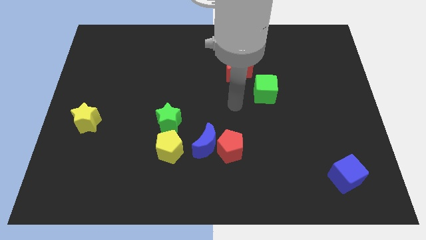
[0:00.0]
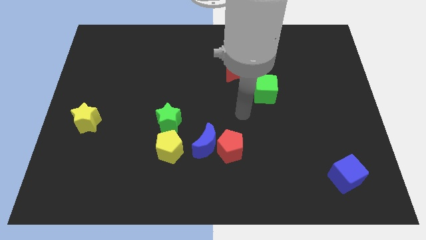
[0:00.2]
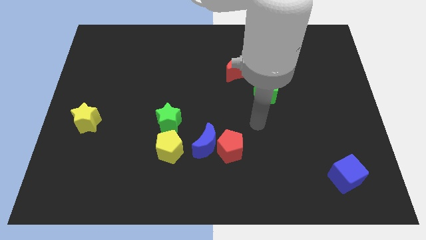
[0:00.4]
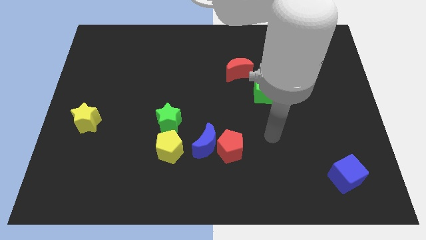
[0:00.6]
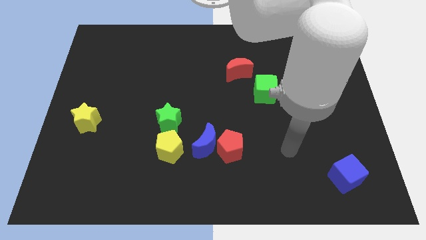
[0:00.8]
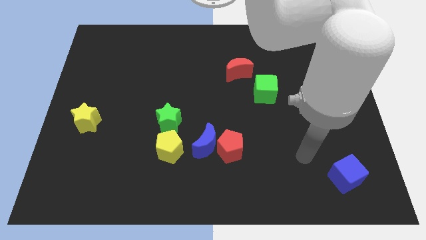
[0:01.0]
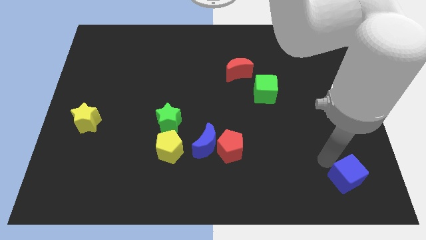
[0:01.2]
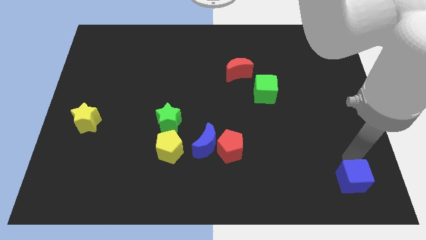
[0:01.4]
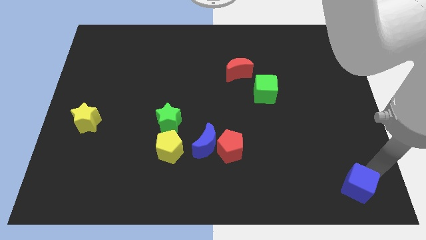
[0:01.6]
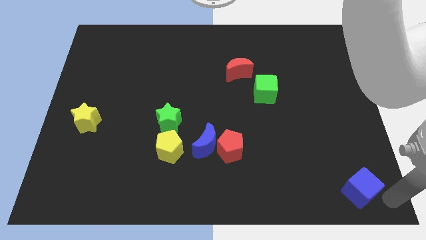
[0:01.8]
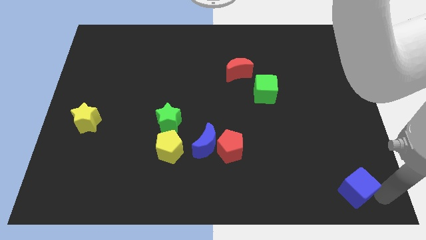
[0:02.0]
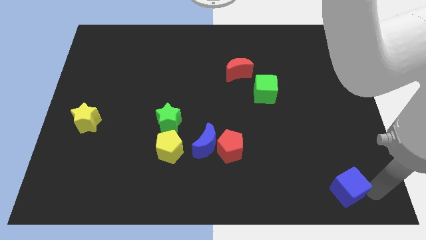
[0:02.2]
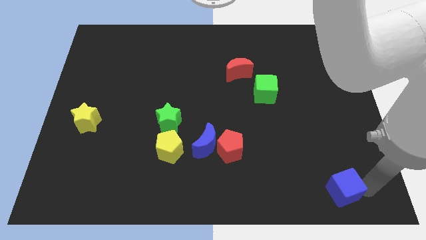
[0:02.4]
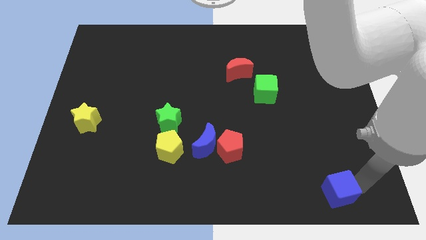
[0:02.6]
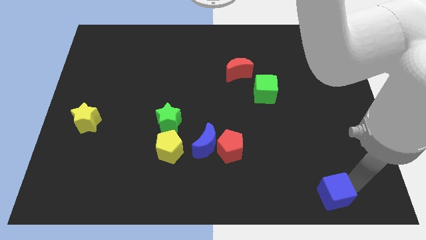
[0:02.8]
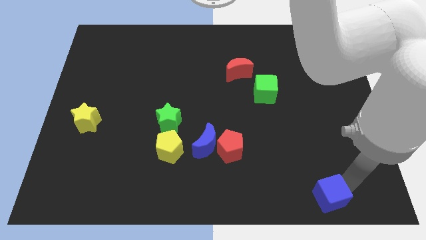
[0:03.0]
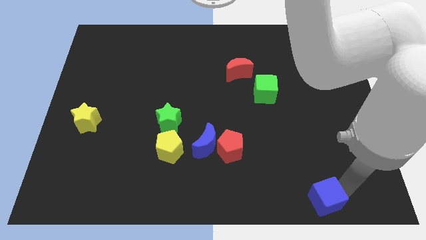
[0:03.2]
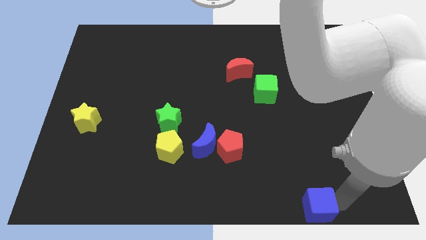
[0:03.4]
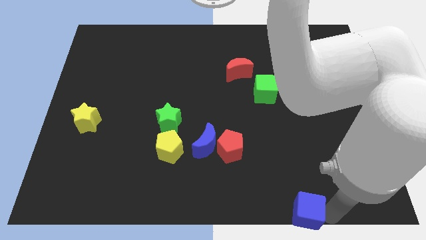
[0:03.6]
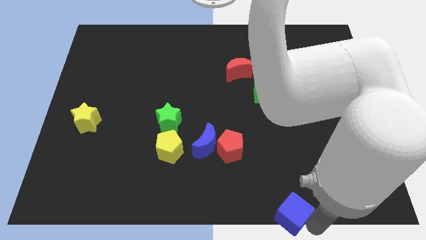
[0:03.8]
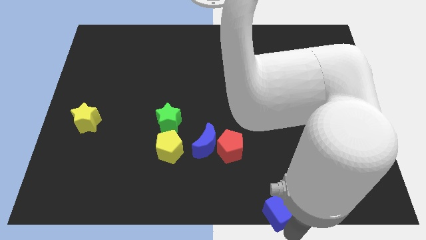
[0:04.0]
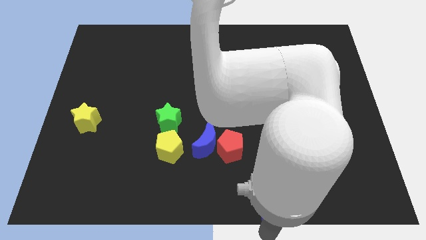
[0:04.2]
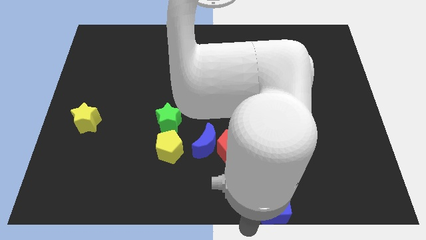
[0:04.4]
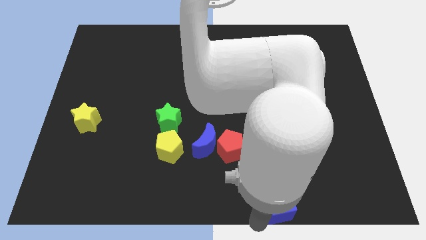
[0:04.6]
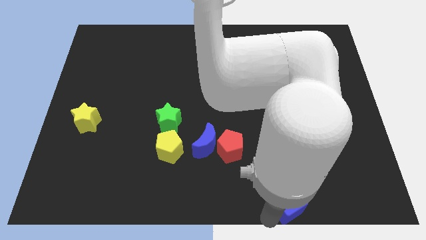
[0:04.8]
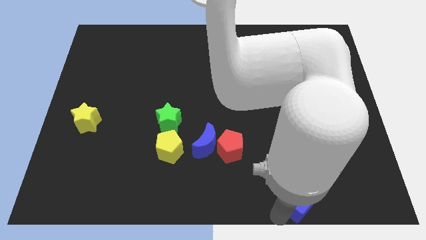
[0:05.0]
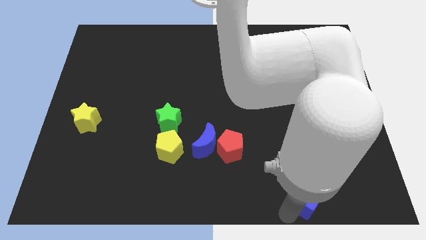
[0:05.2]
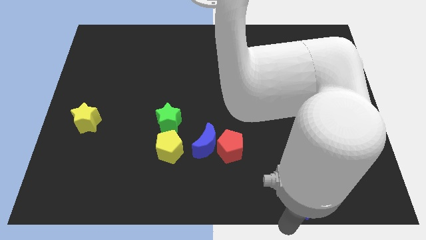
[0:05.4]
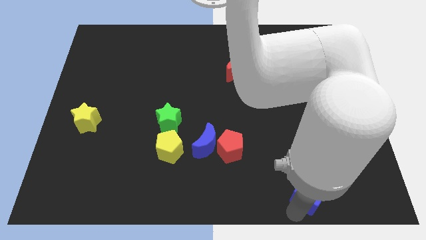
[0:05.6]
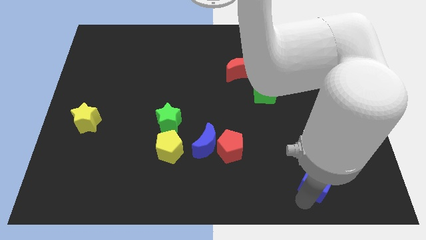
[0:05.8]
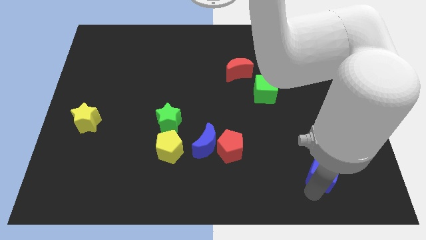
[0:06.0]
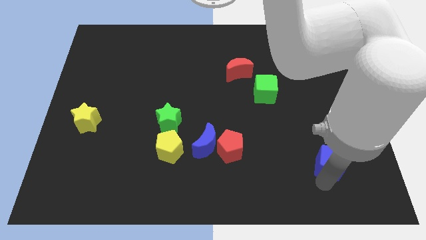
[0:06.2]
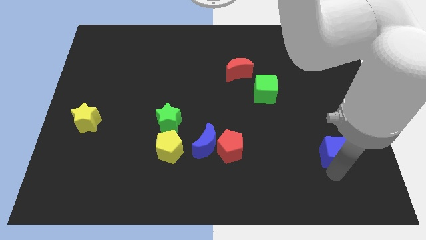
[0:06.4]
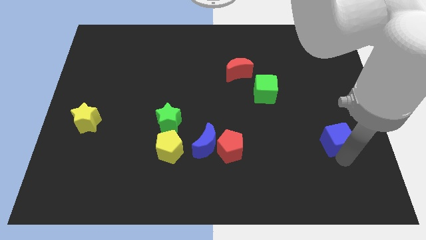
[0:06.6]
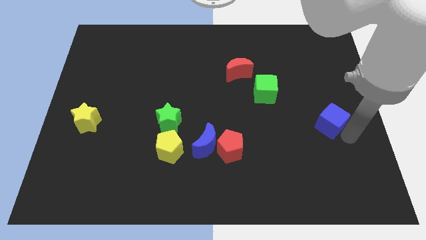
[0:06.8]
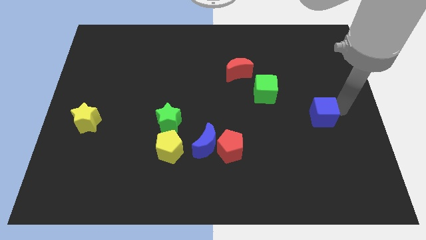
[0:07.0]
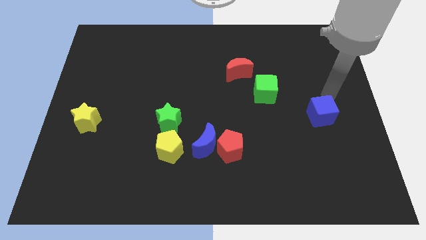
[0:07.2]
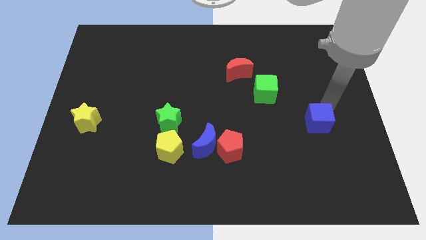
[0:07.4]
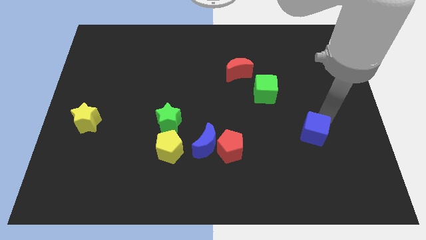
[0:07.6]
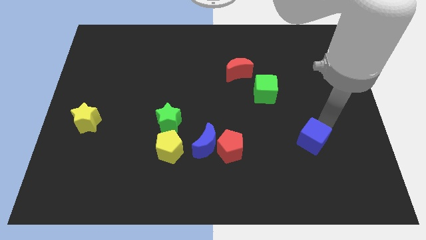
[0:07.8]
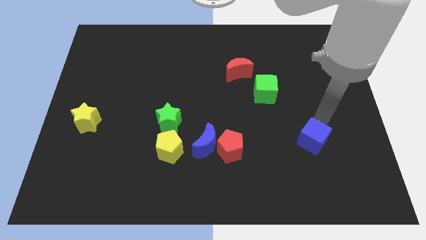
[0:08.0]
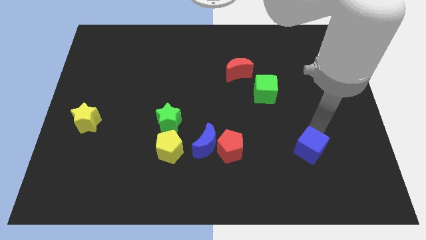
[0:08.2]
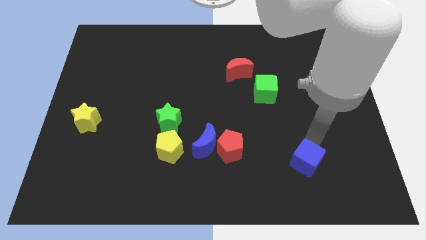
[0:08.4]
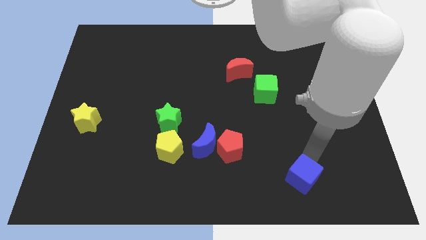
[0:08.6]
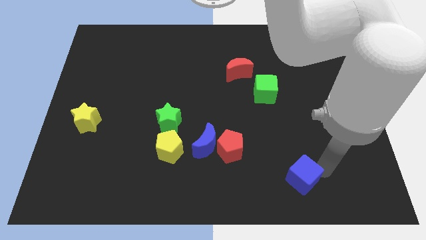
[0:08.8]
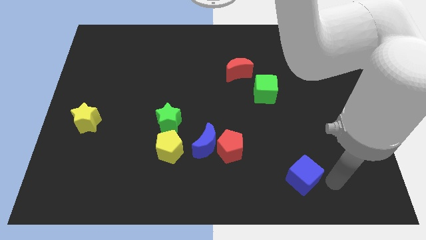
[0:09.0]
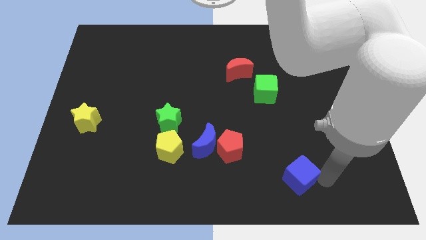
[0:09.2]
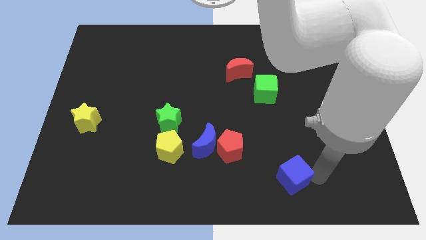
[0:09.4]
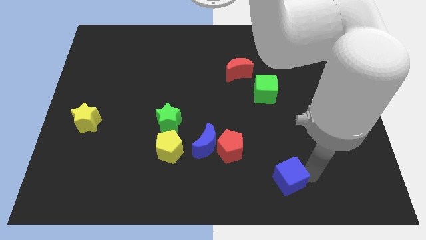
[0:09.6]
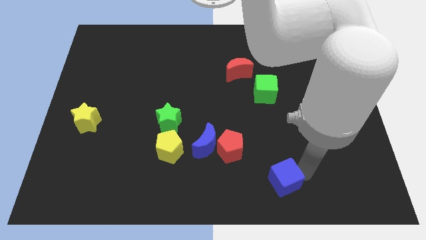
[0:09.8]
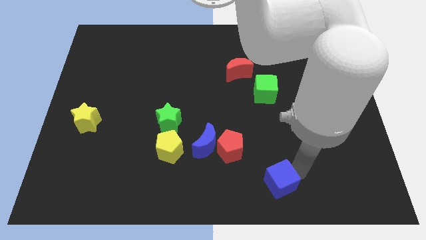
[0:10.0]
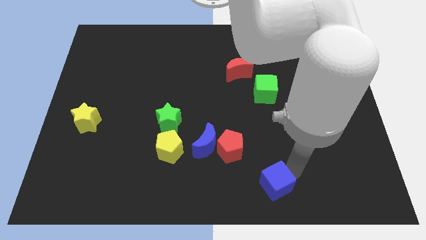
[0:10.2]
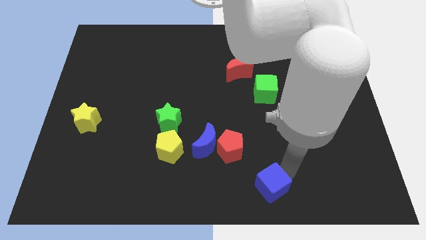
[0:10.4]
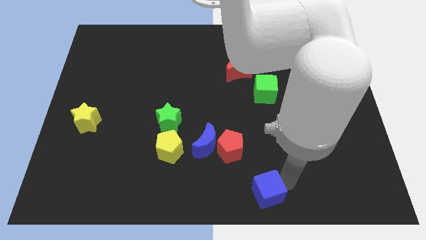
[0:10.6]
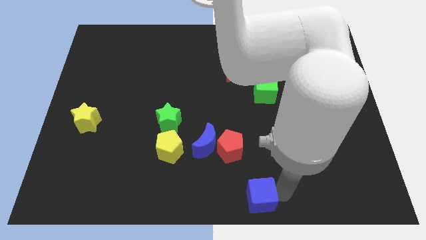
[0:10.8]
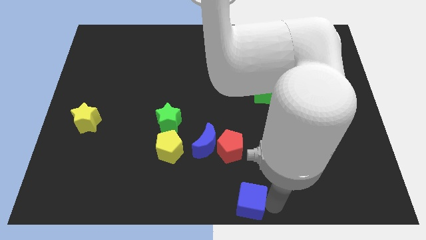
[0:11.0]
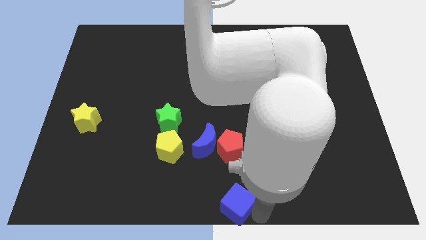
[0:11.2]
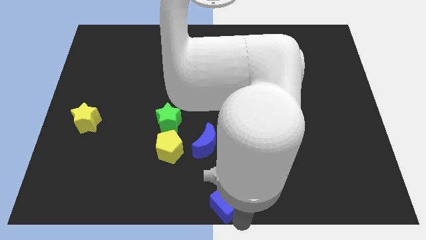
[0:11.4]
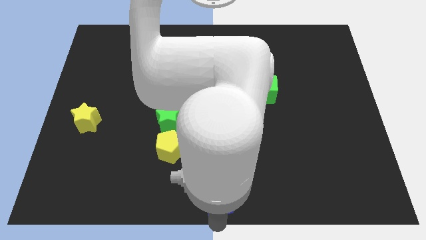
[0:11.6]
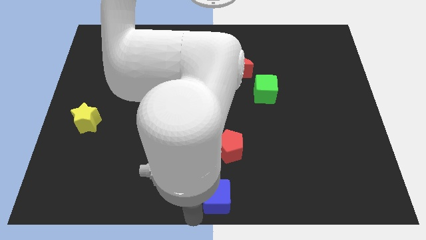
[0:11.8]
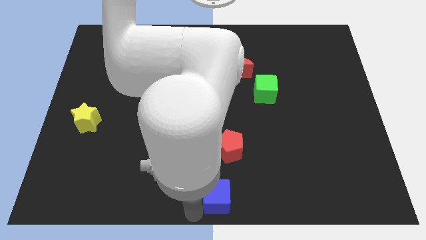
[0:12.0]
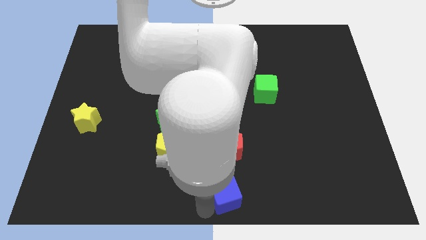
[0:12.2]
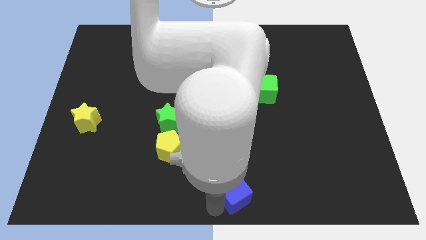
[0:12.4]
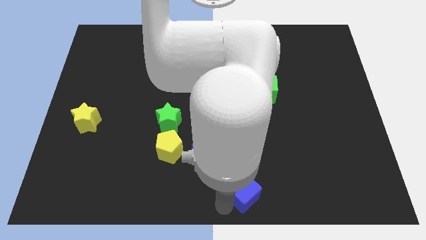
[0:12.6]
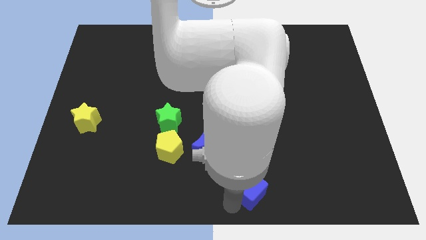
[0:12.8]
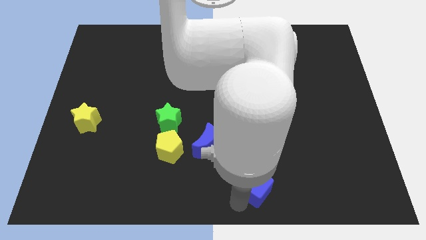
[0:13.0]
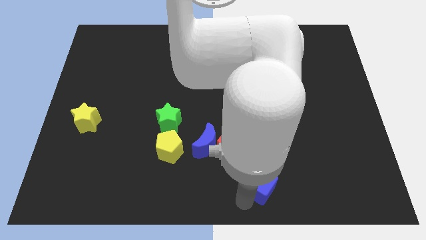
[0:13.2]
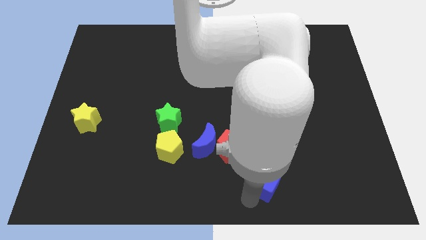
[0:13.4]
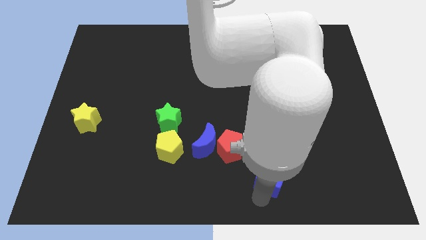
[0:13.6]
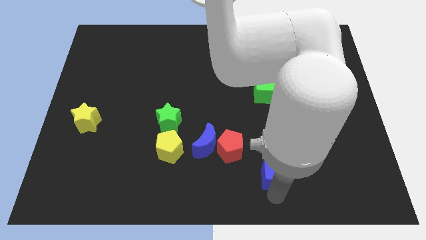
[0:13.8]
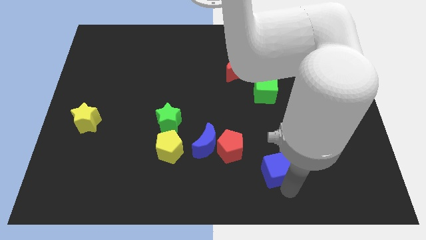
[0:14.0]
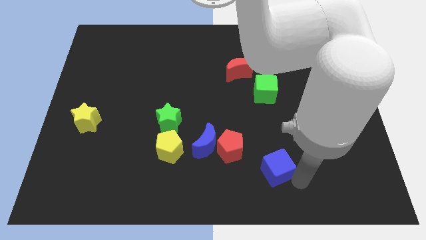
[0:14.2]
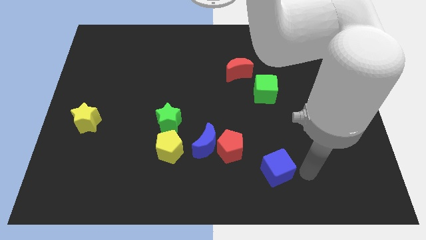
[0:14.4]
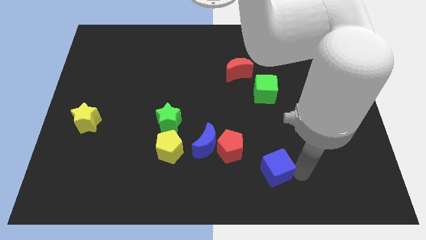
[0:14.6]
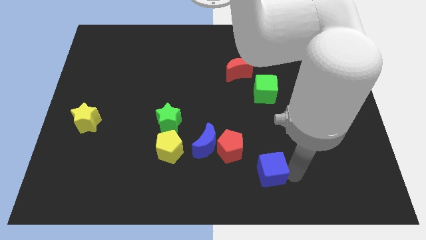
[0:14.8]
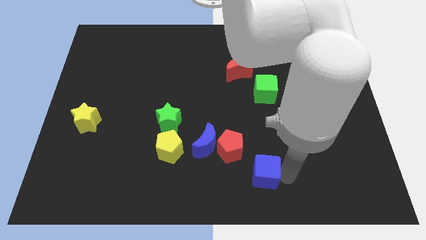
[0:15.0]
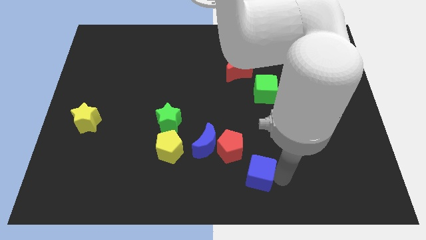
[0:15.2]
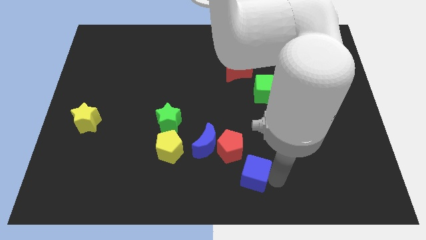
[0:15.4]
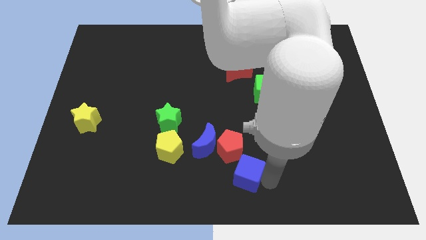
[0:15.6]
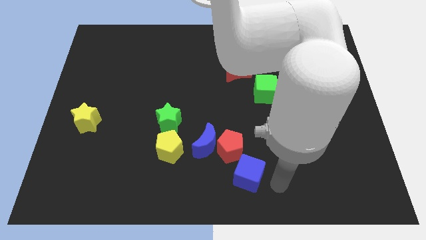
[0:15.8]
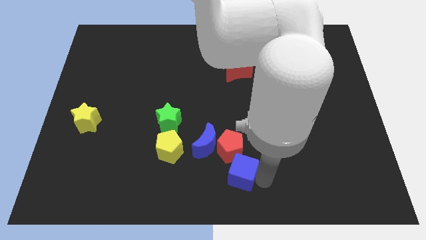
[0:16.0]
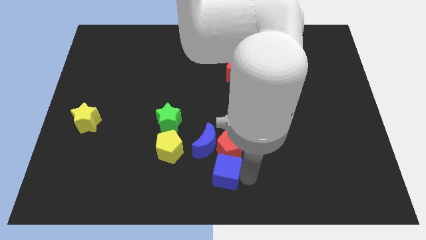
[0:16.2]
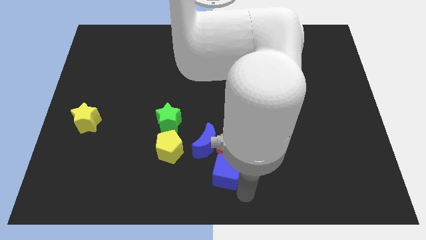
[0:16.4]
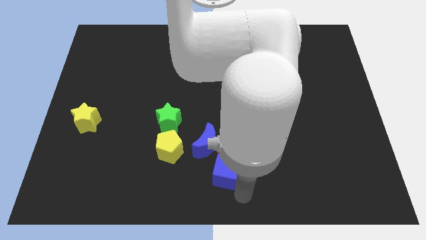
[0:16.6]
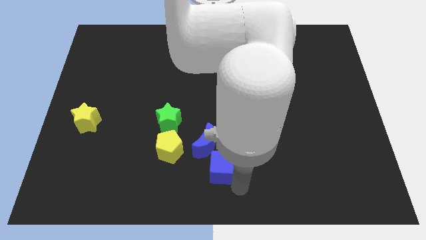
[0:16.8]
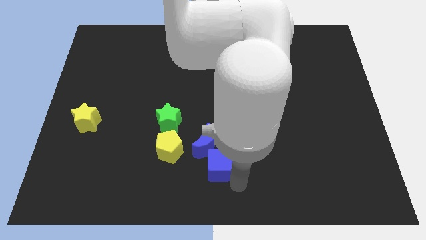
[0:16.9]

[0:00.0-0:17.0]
push the blue cube close to the blue moon
